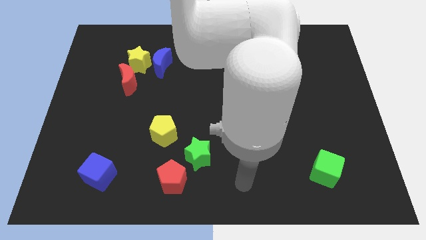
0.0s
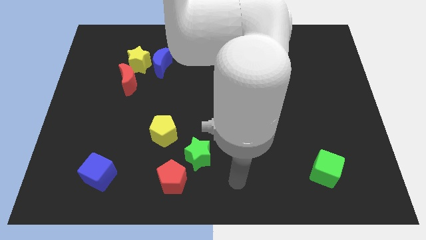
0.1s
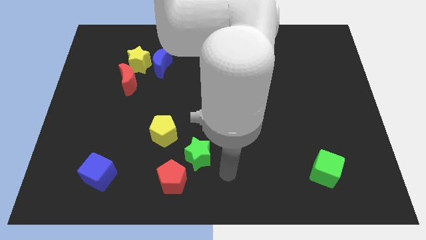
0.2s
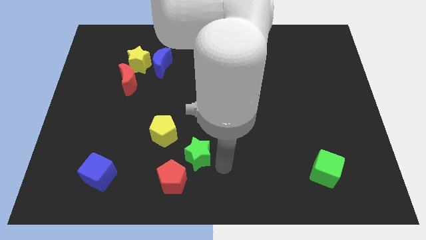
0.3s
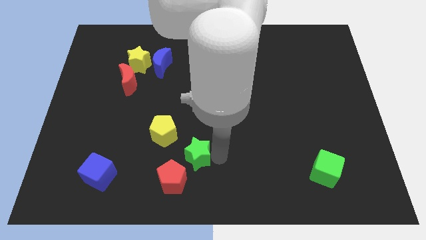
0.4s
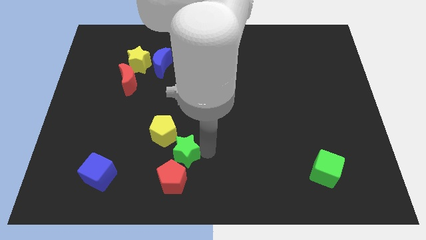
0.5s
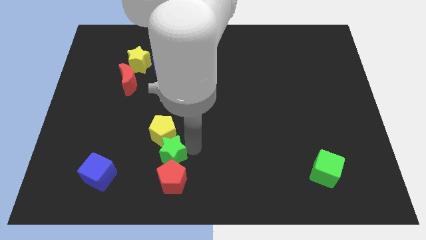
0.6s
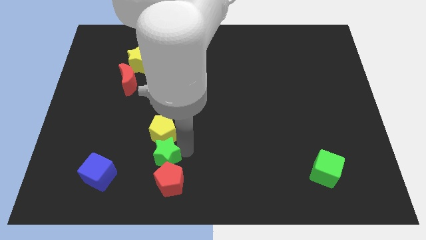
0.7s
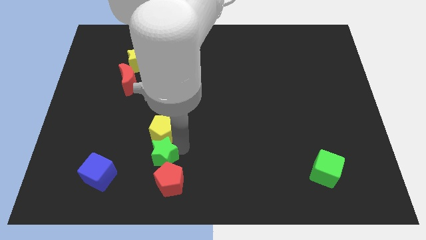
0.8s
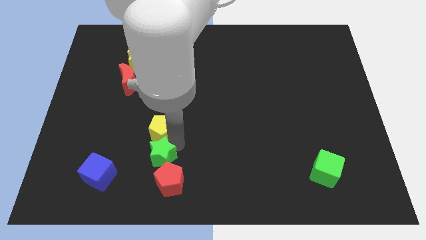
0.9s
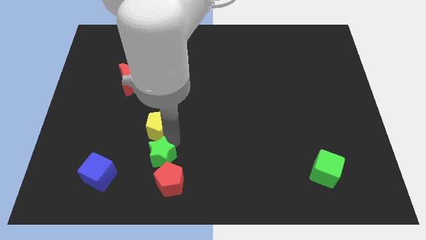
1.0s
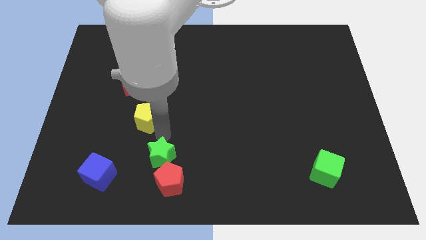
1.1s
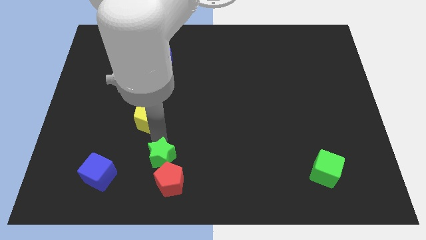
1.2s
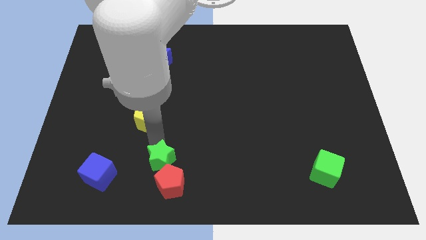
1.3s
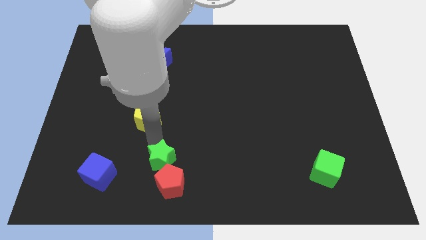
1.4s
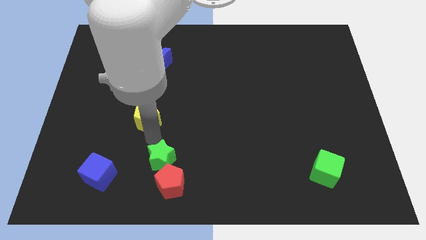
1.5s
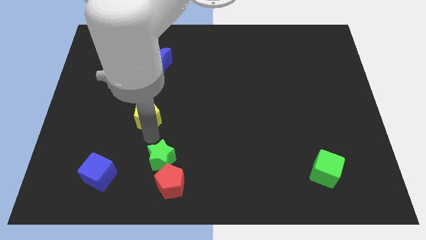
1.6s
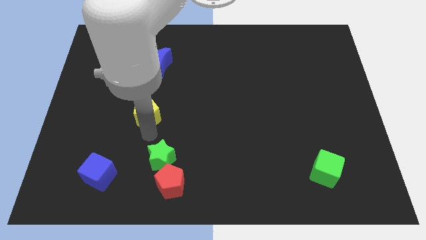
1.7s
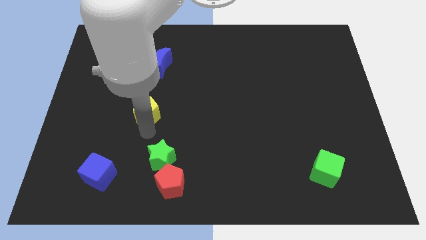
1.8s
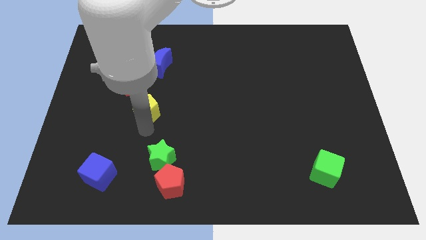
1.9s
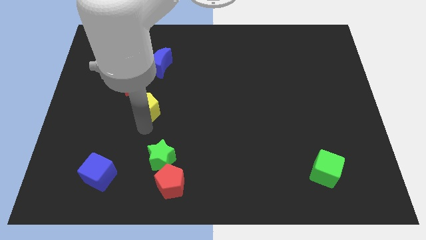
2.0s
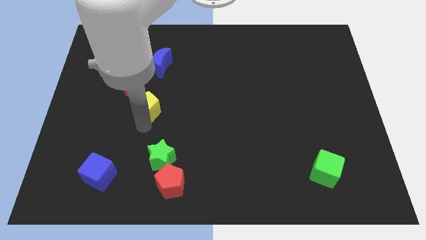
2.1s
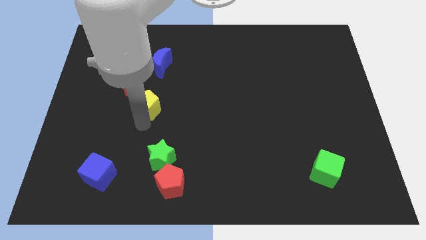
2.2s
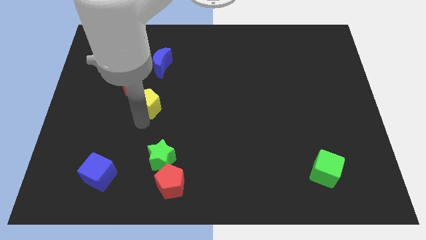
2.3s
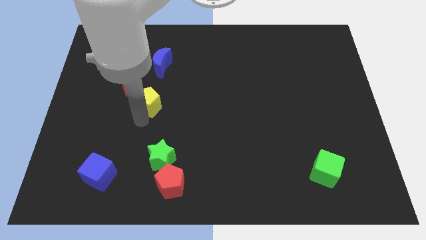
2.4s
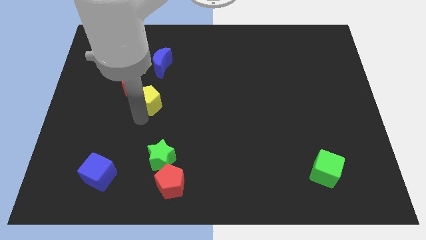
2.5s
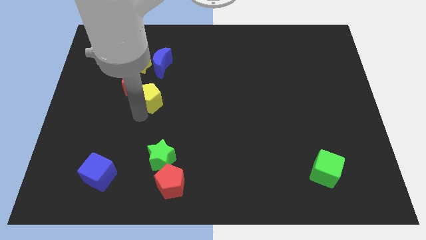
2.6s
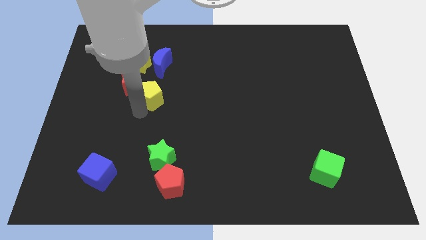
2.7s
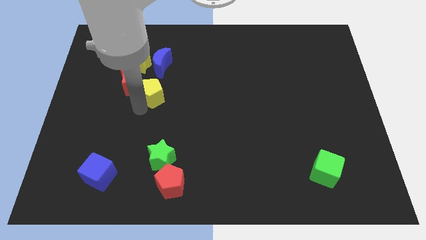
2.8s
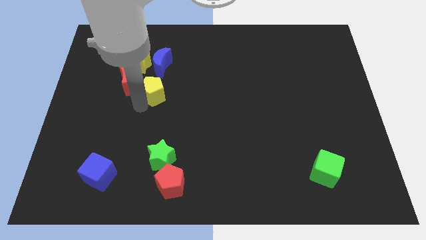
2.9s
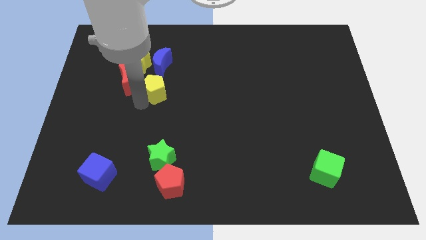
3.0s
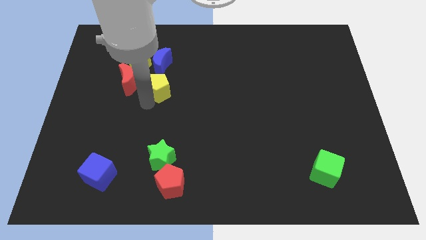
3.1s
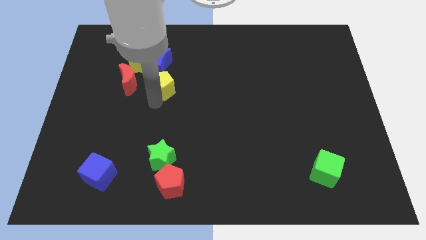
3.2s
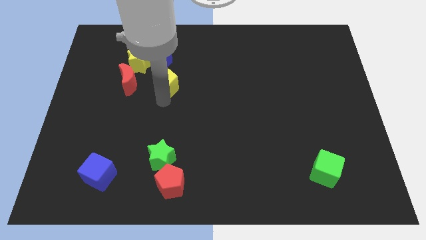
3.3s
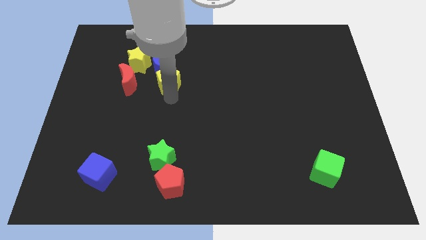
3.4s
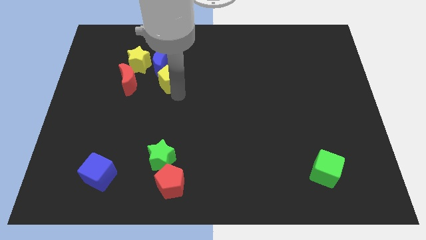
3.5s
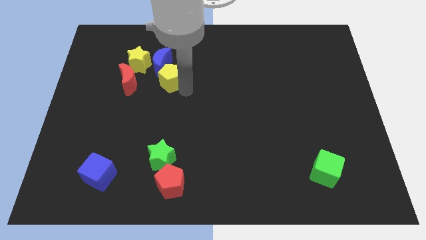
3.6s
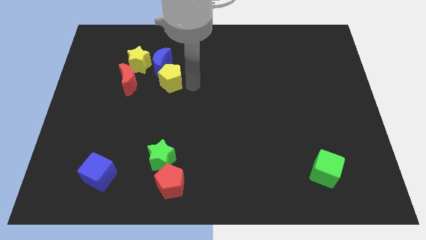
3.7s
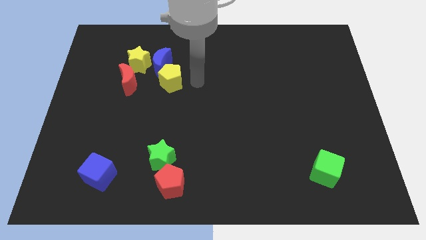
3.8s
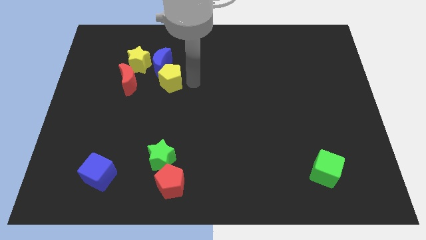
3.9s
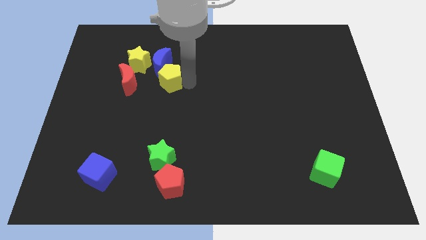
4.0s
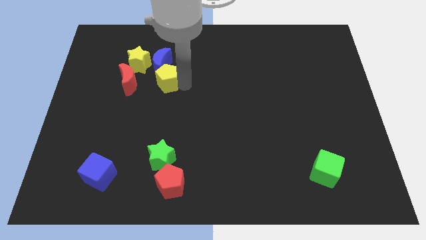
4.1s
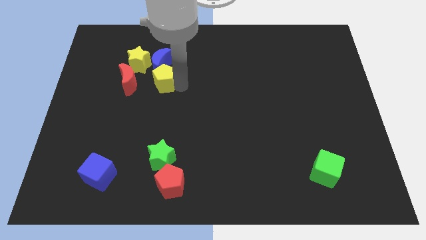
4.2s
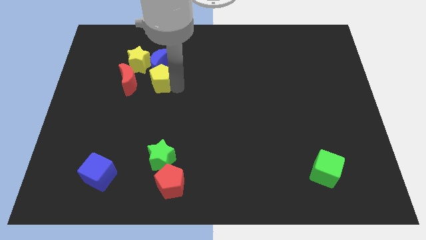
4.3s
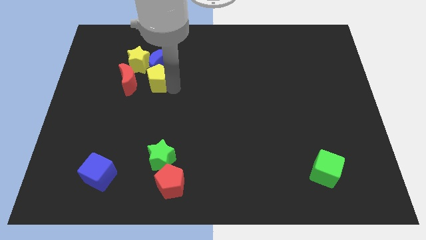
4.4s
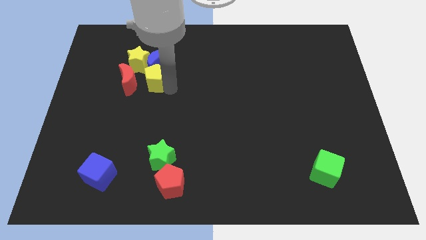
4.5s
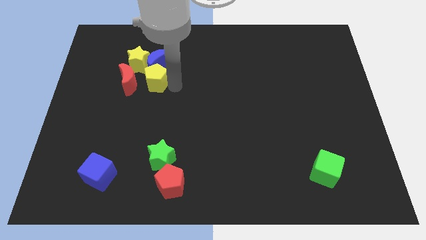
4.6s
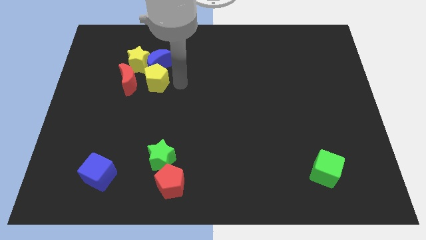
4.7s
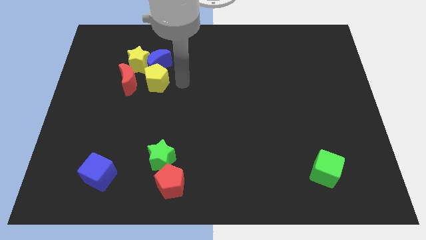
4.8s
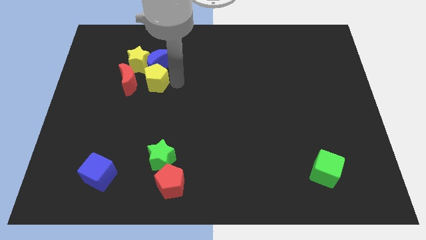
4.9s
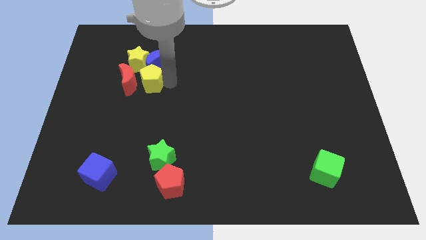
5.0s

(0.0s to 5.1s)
move the yellow pentagon towards the red moon

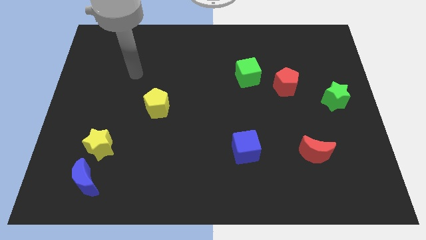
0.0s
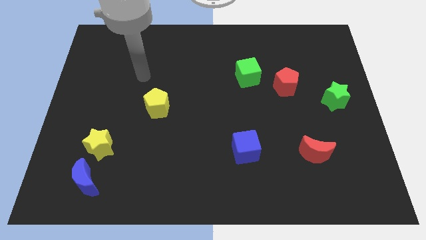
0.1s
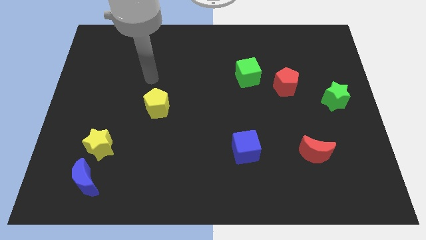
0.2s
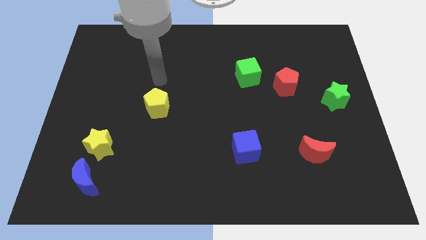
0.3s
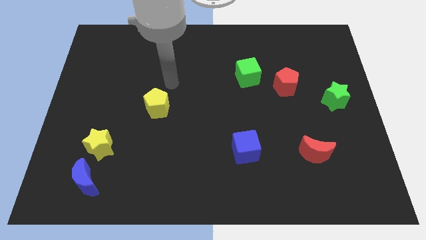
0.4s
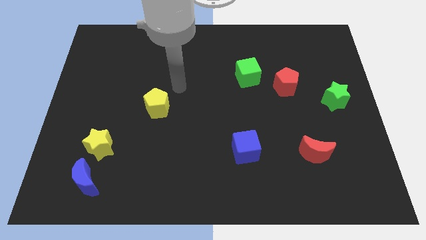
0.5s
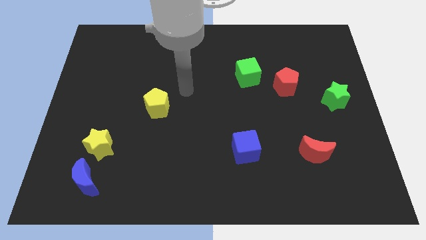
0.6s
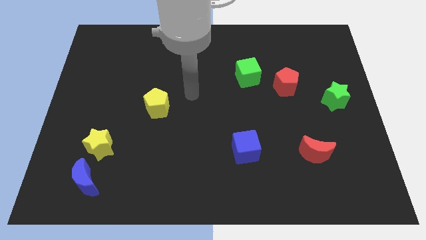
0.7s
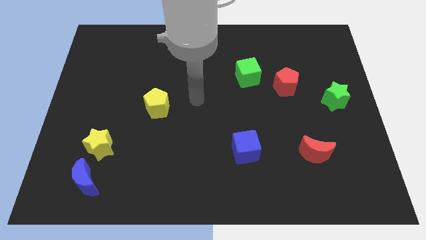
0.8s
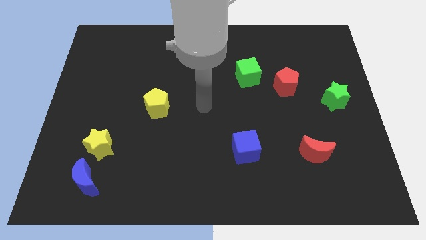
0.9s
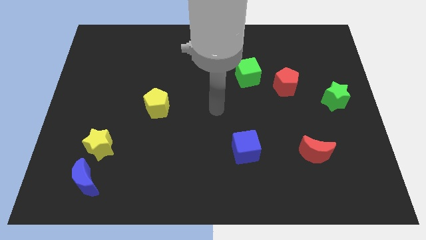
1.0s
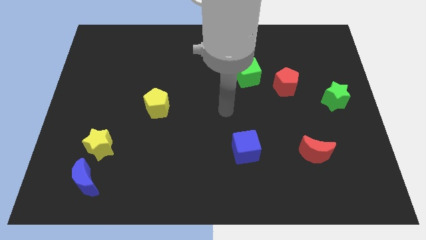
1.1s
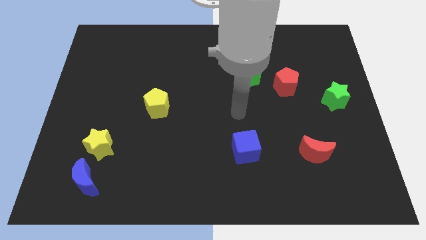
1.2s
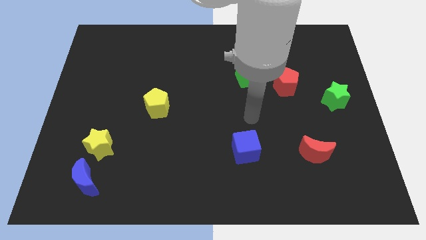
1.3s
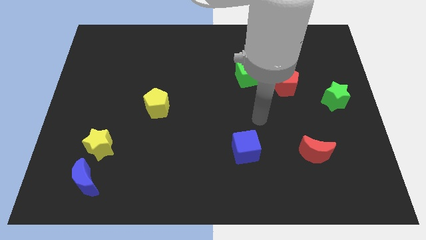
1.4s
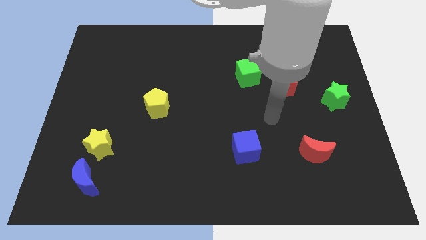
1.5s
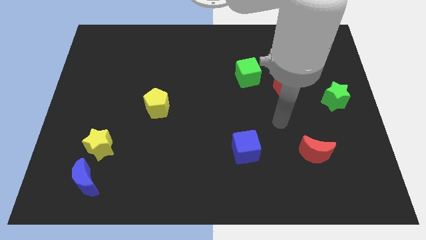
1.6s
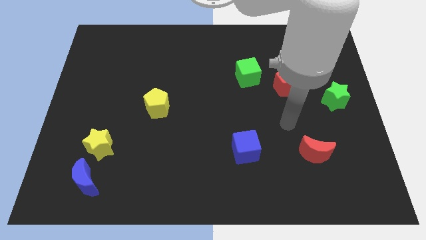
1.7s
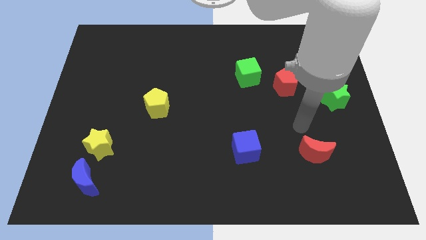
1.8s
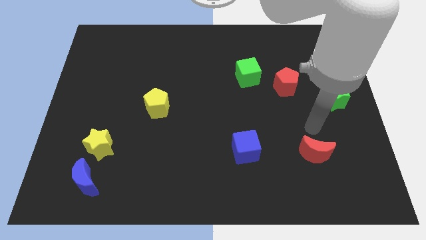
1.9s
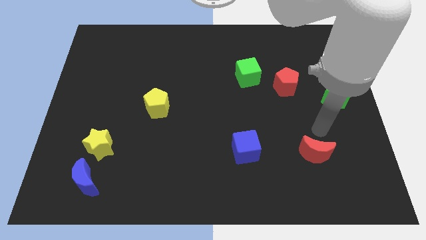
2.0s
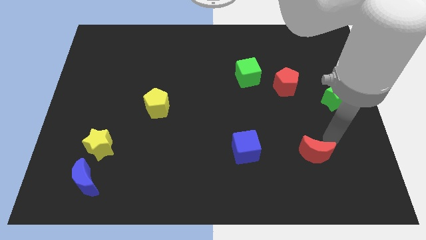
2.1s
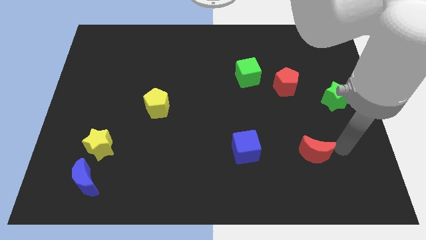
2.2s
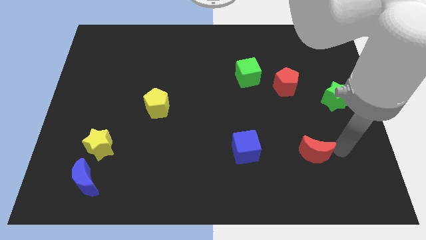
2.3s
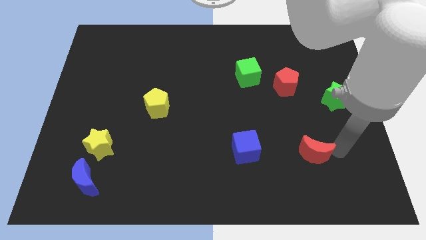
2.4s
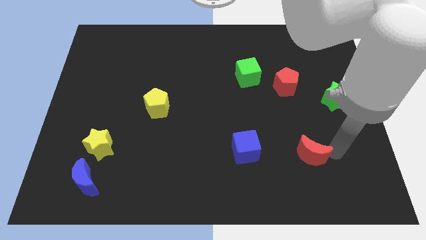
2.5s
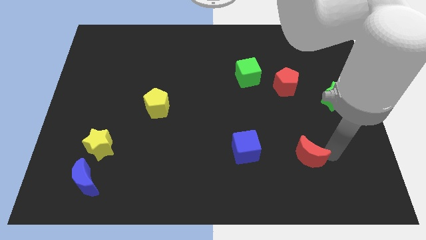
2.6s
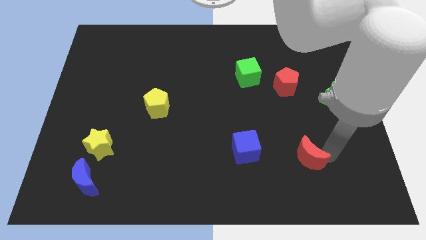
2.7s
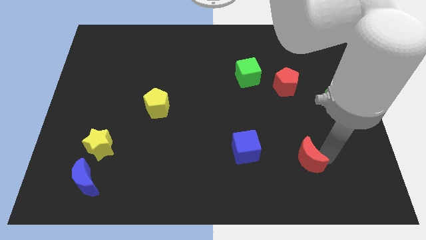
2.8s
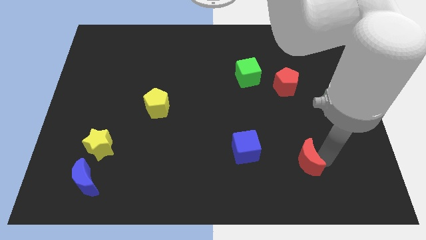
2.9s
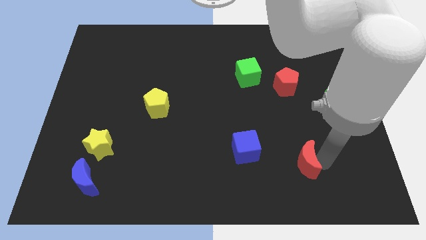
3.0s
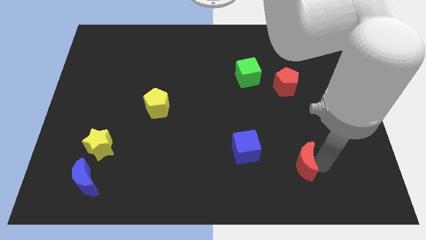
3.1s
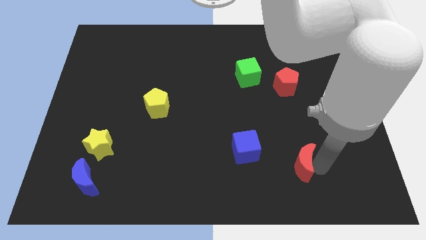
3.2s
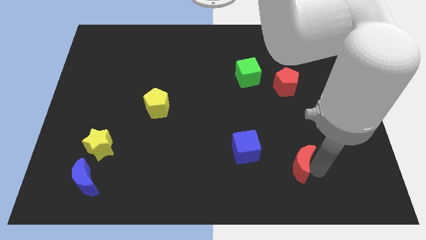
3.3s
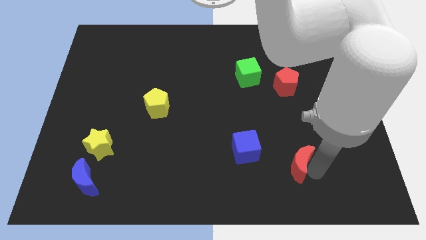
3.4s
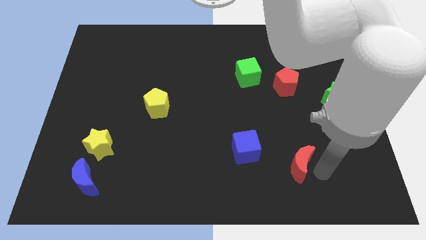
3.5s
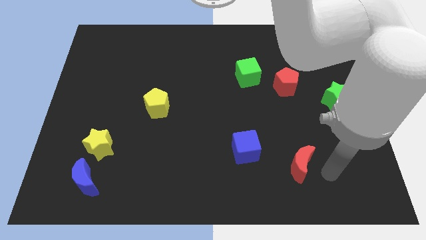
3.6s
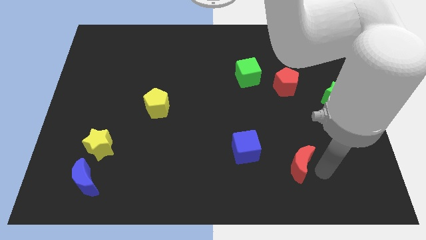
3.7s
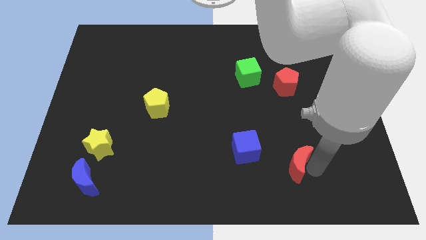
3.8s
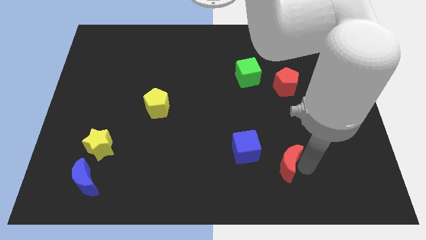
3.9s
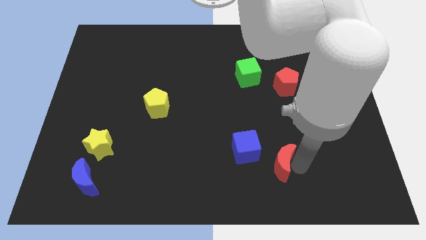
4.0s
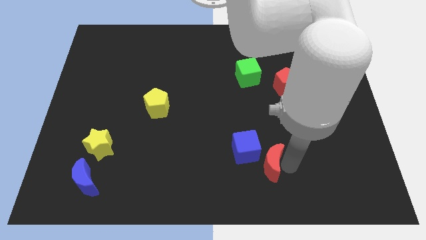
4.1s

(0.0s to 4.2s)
slide the red moon next to the blue cube
